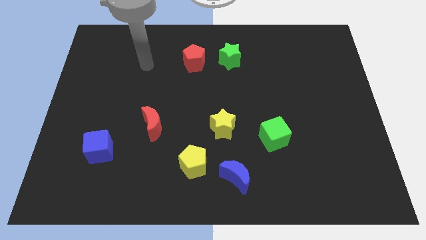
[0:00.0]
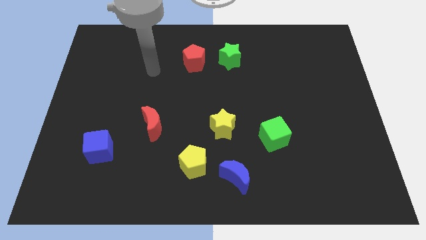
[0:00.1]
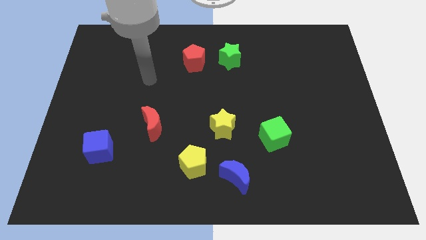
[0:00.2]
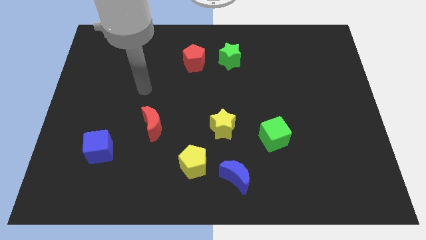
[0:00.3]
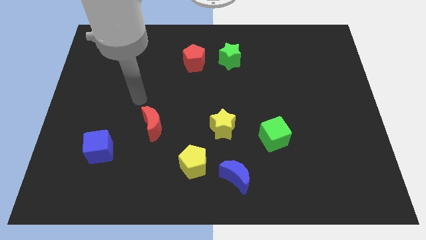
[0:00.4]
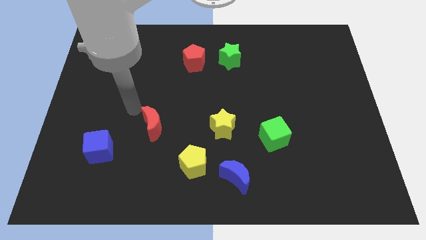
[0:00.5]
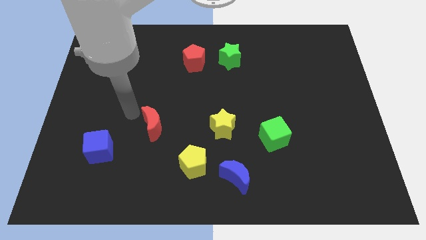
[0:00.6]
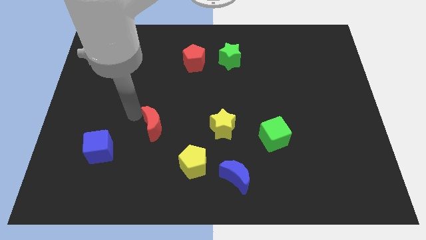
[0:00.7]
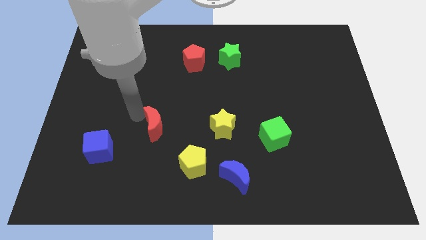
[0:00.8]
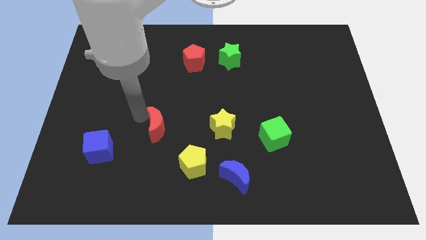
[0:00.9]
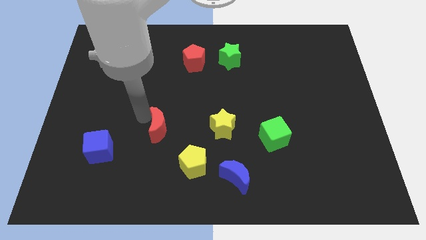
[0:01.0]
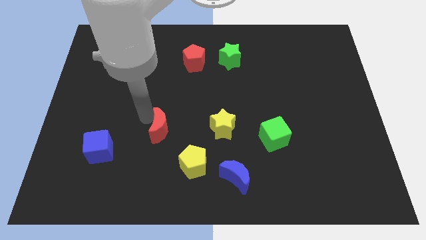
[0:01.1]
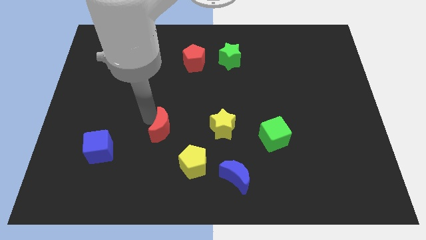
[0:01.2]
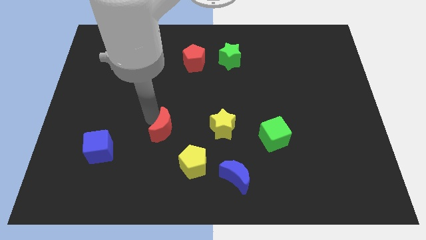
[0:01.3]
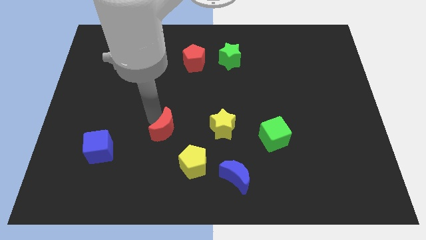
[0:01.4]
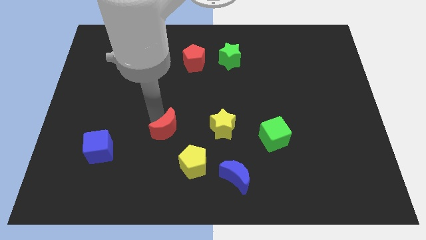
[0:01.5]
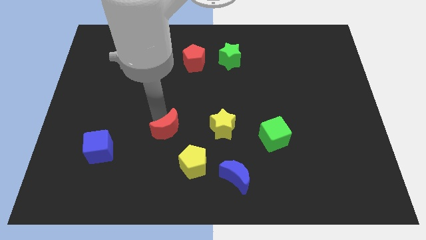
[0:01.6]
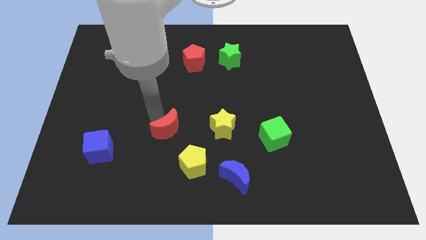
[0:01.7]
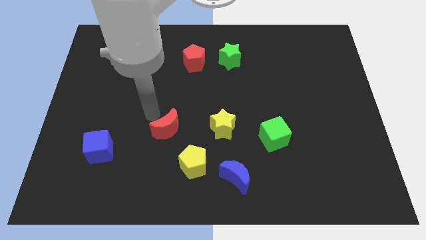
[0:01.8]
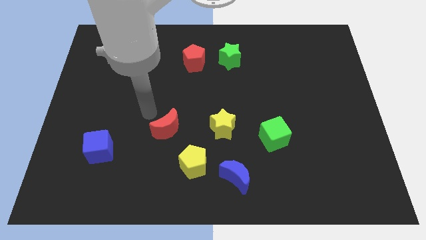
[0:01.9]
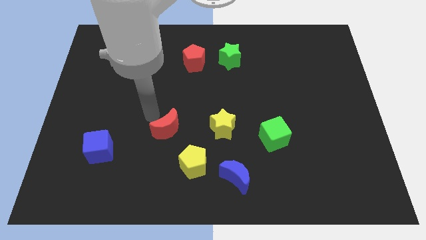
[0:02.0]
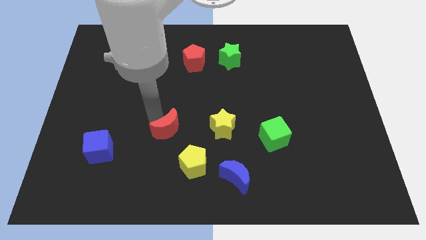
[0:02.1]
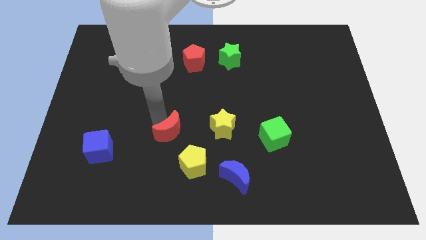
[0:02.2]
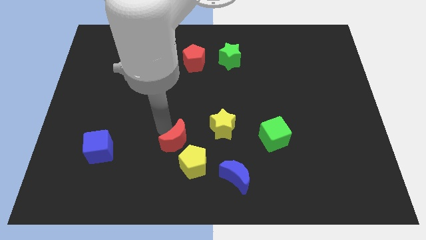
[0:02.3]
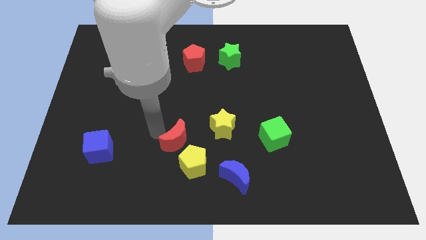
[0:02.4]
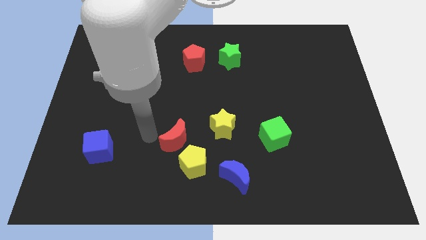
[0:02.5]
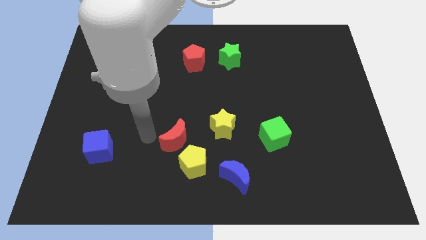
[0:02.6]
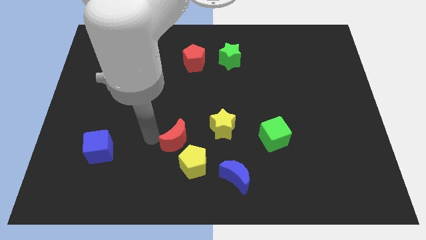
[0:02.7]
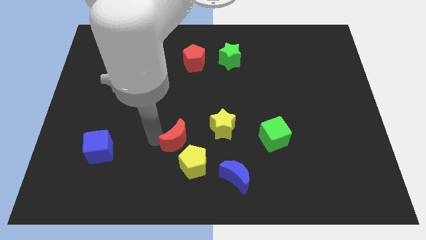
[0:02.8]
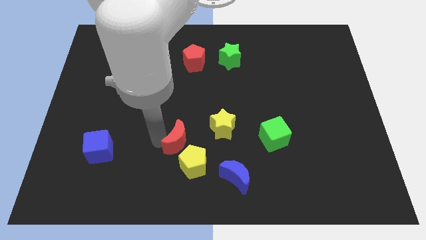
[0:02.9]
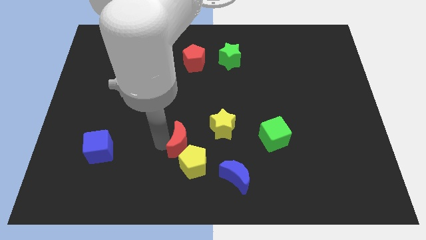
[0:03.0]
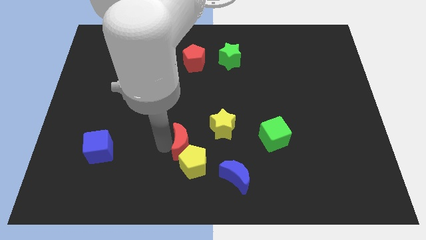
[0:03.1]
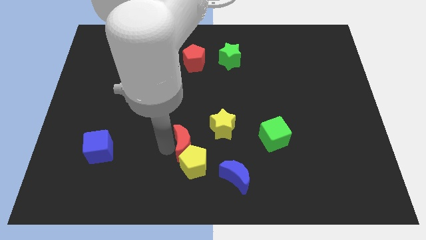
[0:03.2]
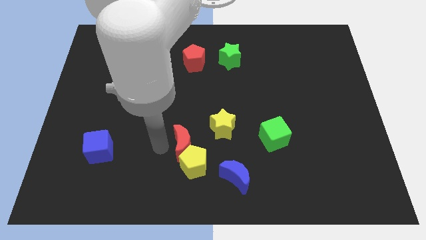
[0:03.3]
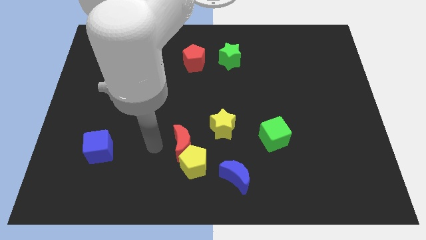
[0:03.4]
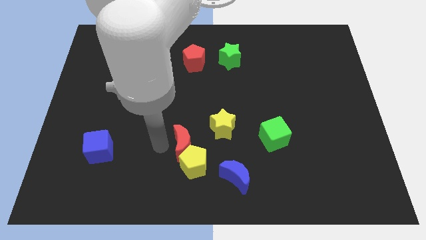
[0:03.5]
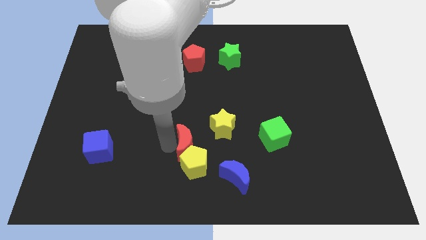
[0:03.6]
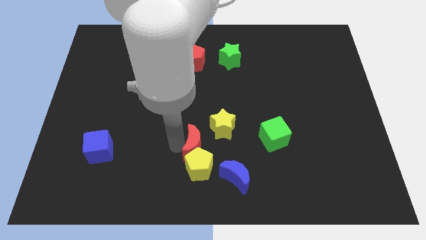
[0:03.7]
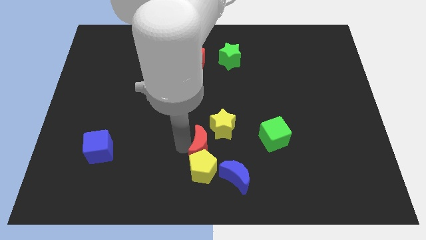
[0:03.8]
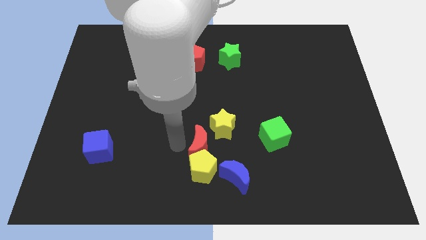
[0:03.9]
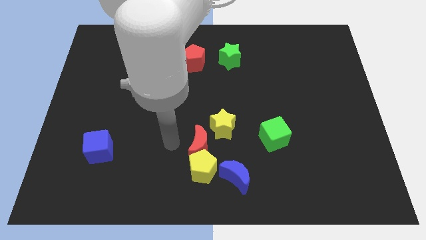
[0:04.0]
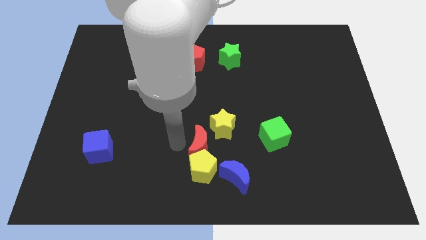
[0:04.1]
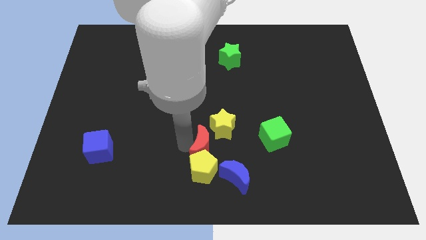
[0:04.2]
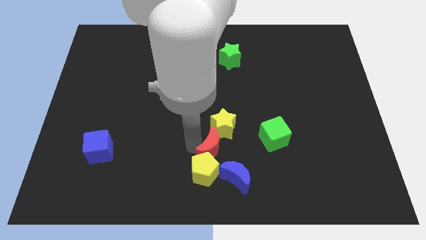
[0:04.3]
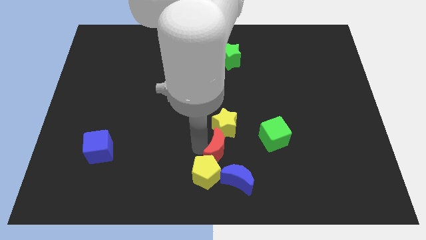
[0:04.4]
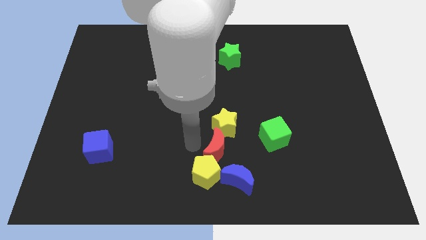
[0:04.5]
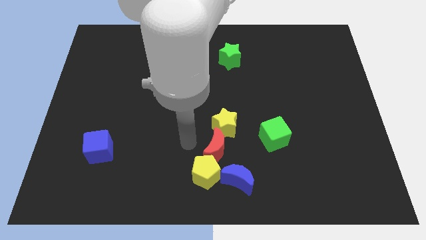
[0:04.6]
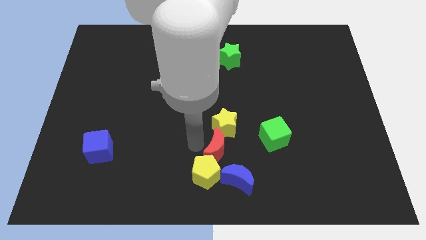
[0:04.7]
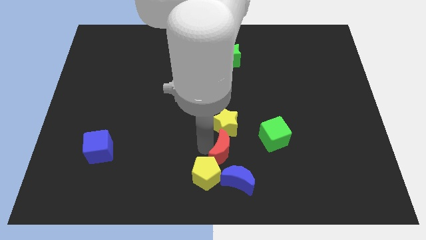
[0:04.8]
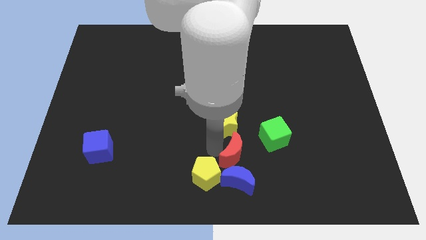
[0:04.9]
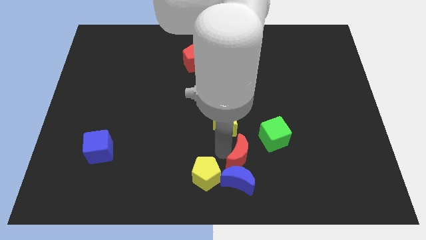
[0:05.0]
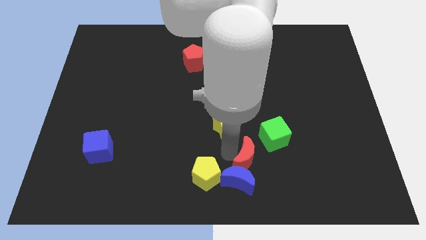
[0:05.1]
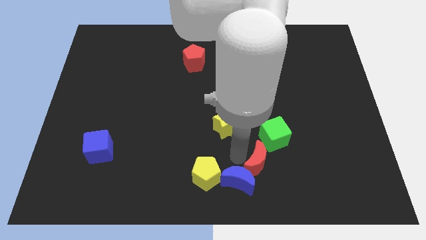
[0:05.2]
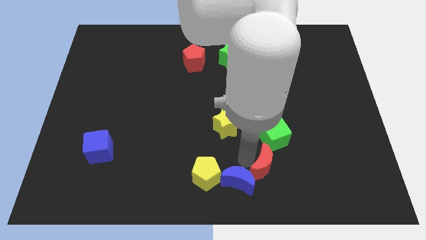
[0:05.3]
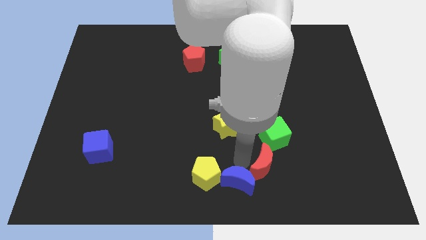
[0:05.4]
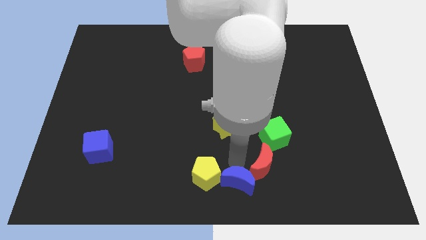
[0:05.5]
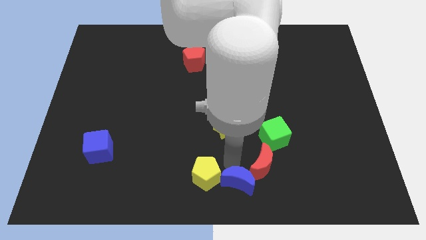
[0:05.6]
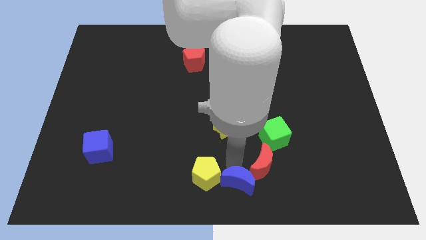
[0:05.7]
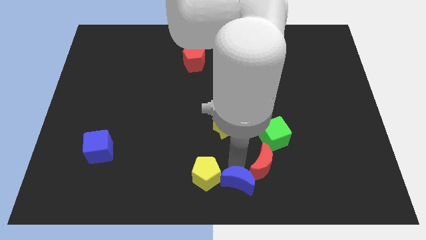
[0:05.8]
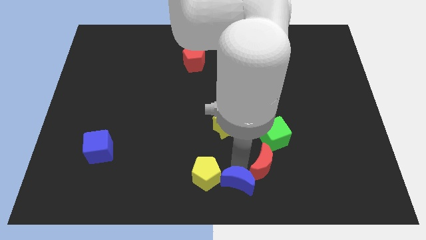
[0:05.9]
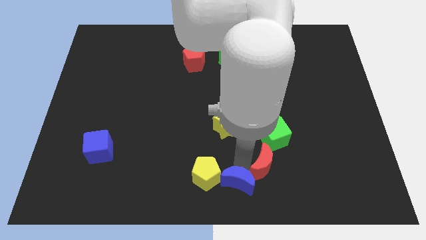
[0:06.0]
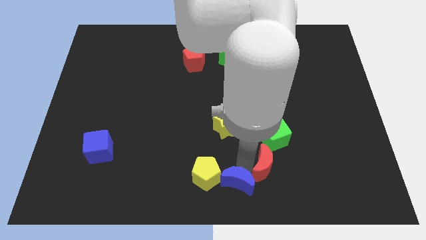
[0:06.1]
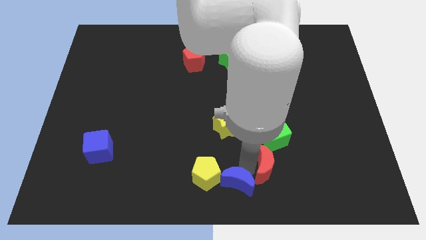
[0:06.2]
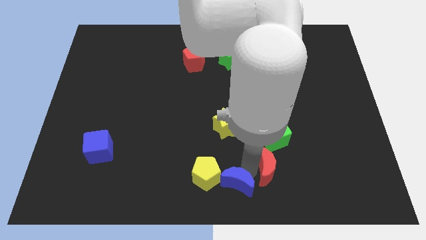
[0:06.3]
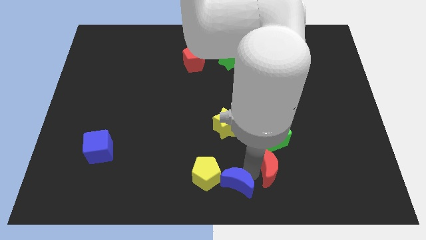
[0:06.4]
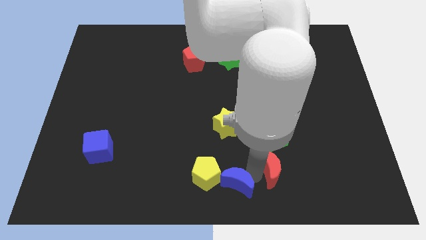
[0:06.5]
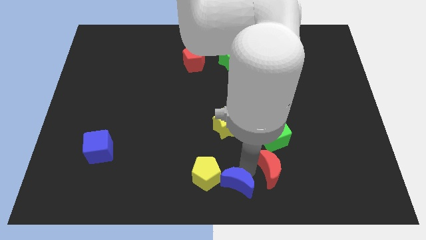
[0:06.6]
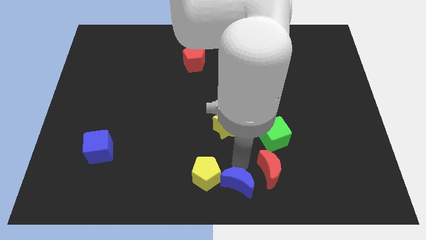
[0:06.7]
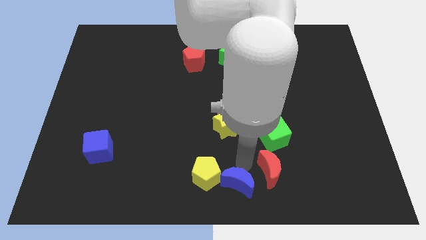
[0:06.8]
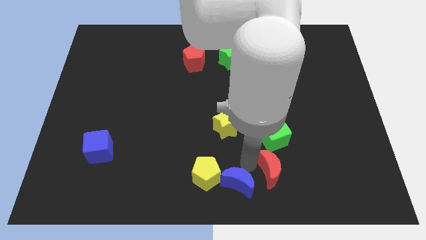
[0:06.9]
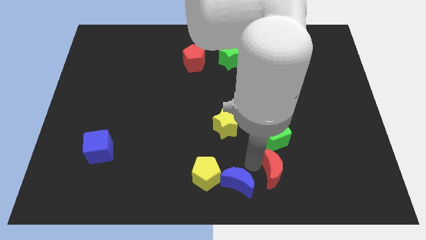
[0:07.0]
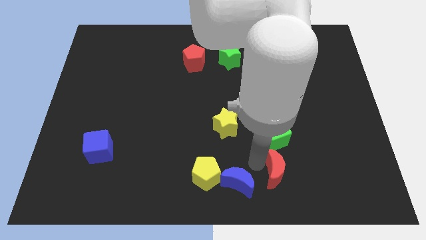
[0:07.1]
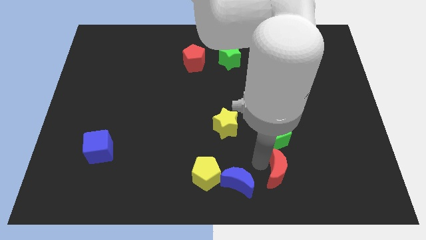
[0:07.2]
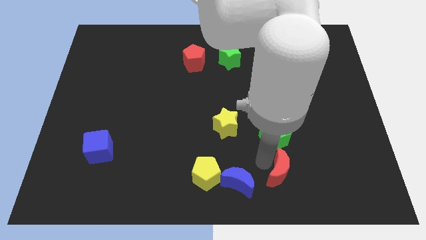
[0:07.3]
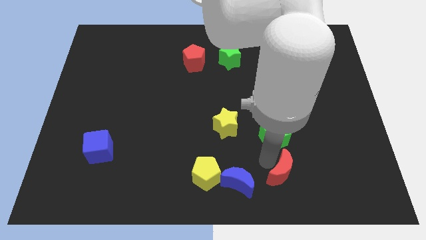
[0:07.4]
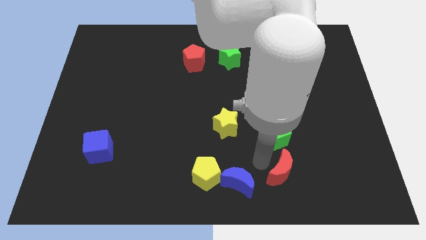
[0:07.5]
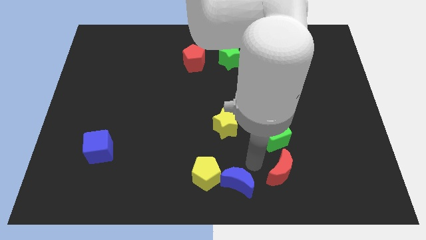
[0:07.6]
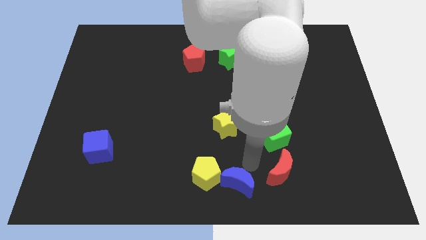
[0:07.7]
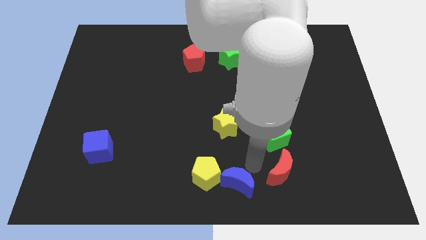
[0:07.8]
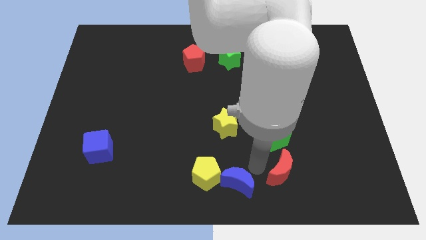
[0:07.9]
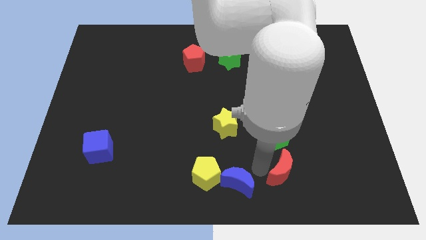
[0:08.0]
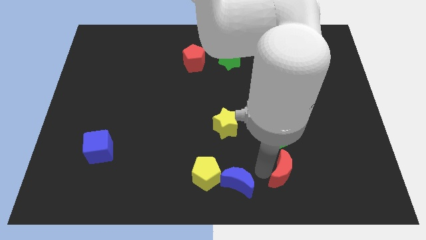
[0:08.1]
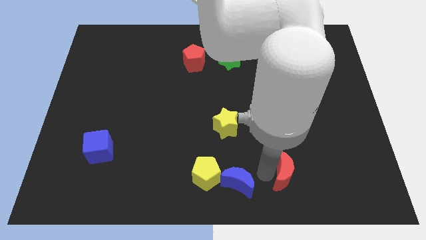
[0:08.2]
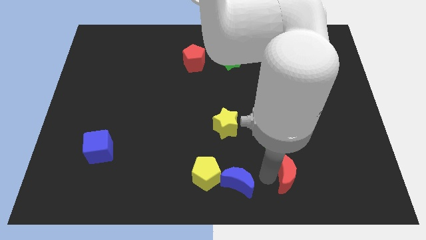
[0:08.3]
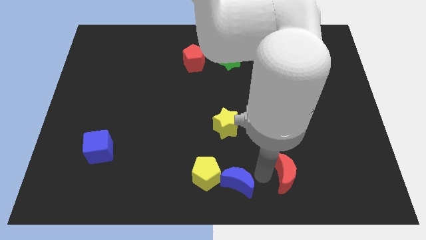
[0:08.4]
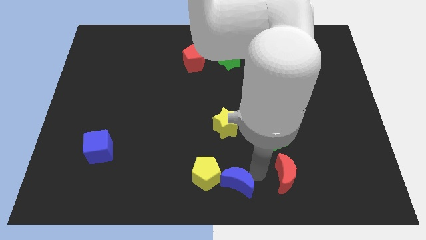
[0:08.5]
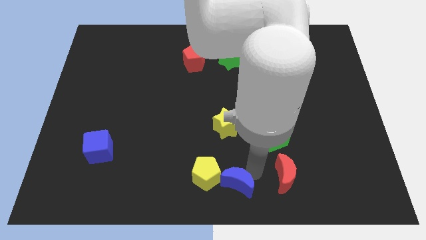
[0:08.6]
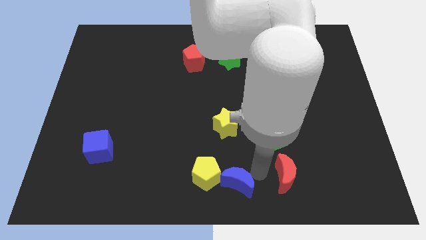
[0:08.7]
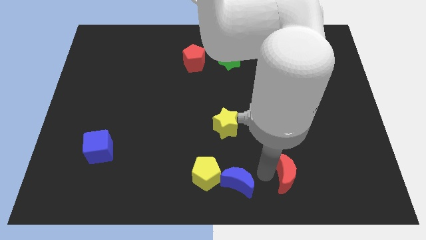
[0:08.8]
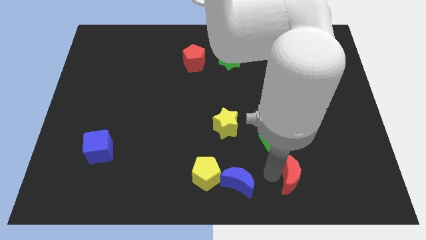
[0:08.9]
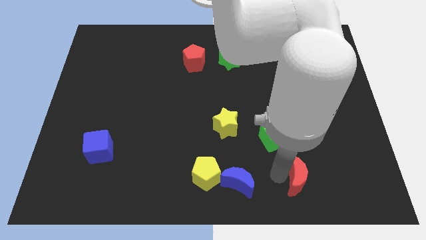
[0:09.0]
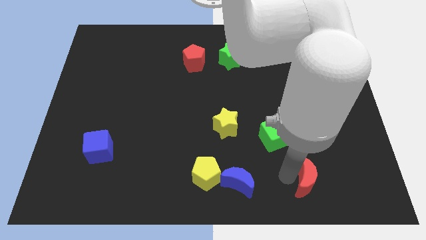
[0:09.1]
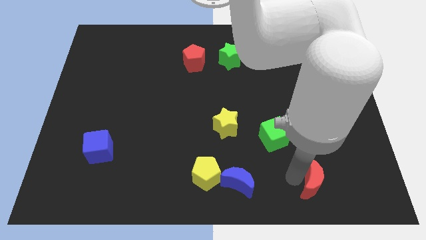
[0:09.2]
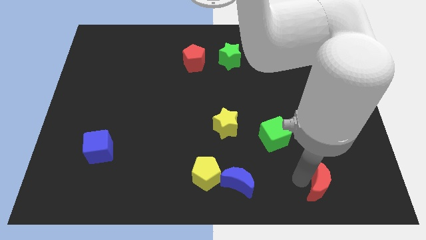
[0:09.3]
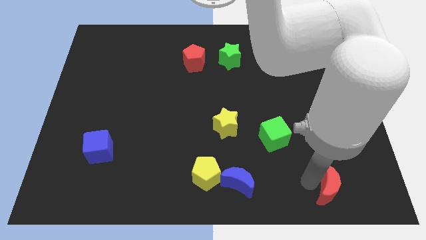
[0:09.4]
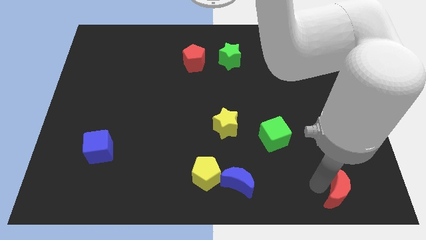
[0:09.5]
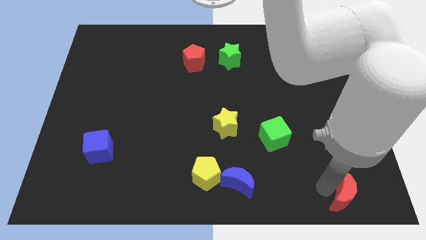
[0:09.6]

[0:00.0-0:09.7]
push the red moon to the bottom right
